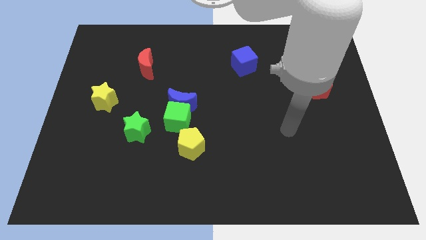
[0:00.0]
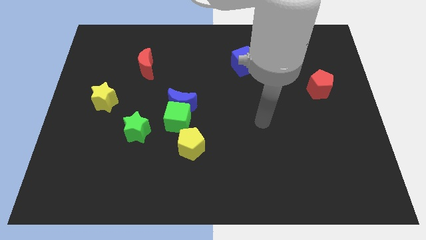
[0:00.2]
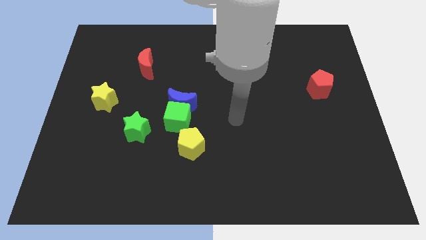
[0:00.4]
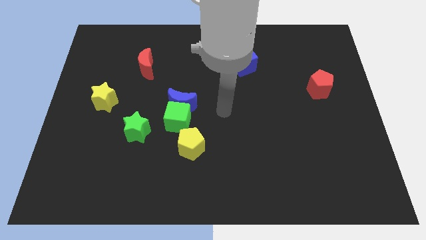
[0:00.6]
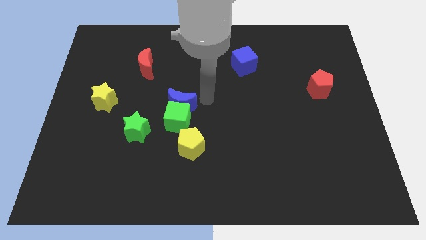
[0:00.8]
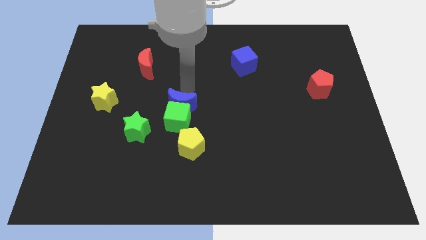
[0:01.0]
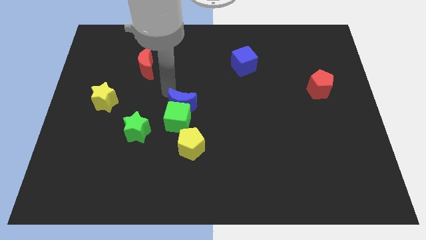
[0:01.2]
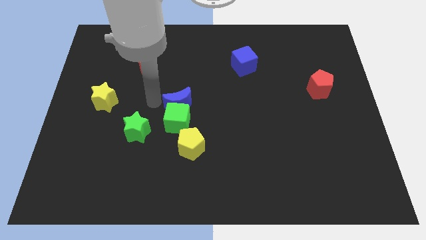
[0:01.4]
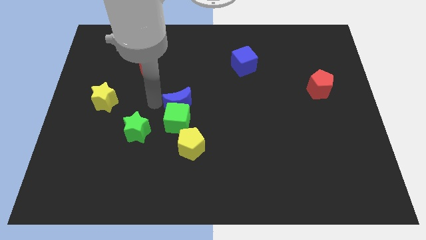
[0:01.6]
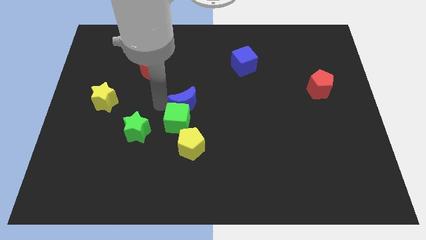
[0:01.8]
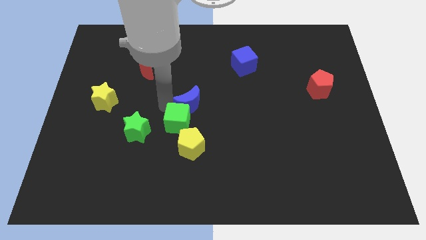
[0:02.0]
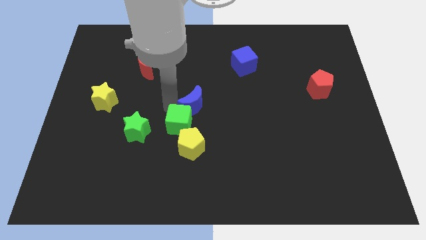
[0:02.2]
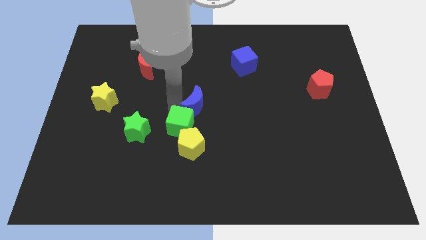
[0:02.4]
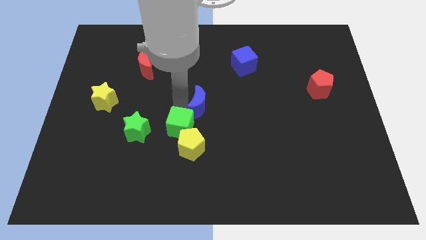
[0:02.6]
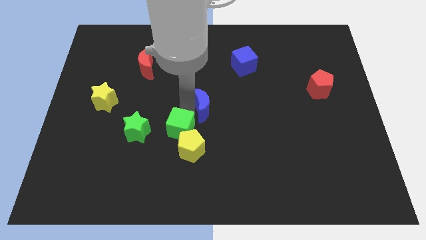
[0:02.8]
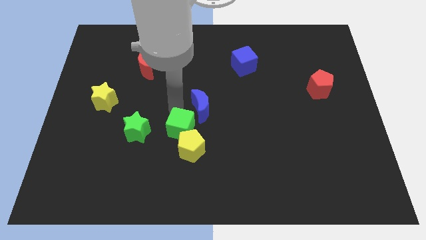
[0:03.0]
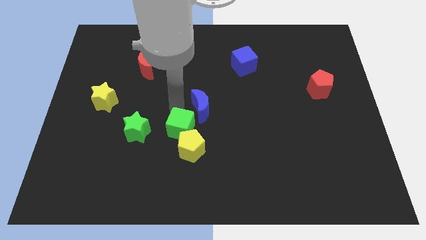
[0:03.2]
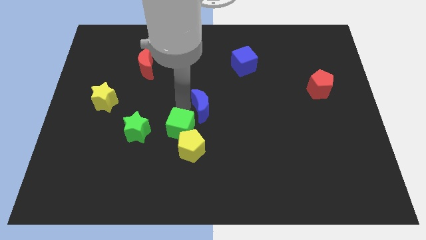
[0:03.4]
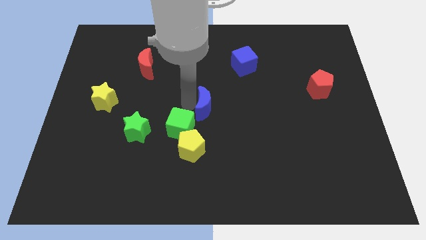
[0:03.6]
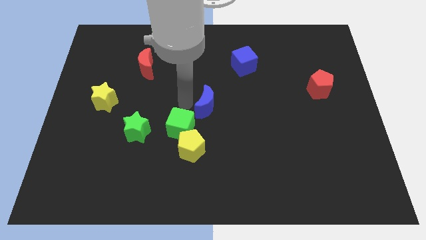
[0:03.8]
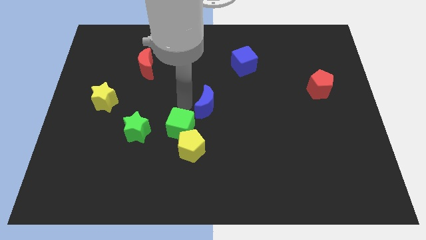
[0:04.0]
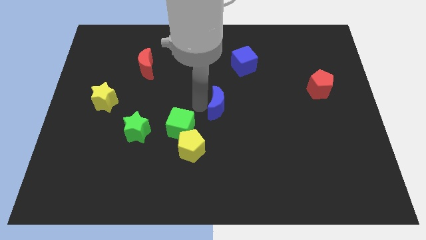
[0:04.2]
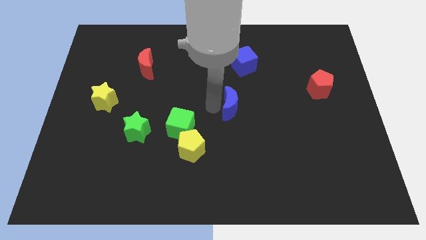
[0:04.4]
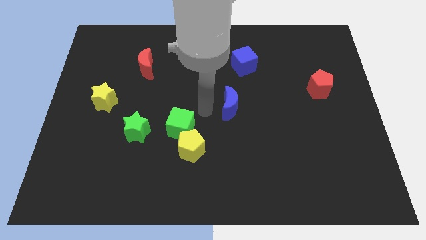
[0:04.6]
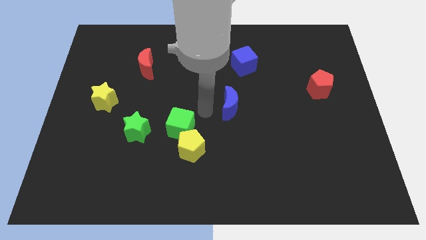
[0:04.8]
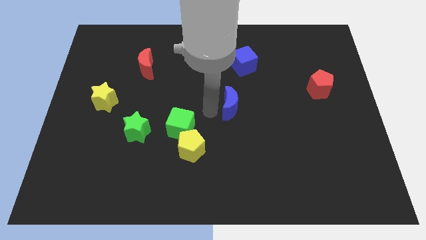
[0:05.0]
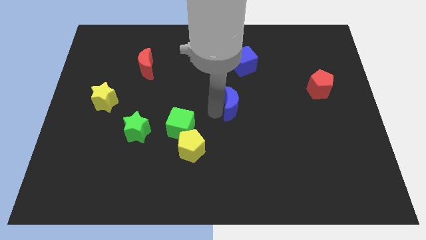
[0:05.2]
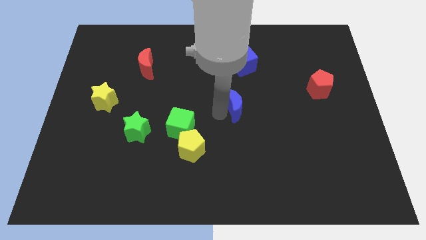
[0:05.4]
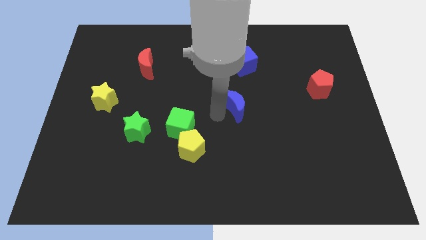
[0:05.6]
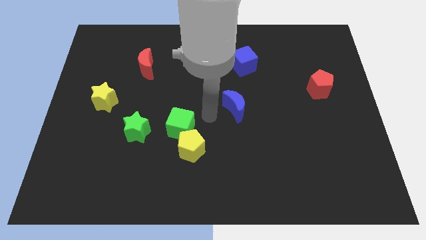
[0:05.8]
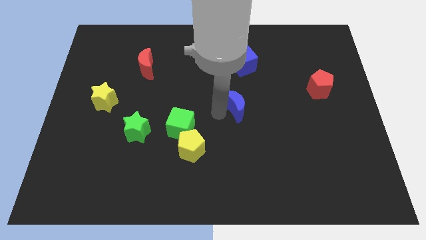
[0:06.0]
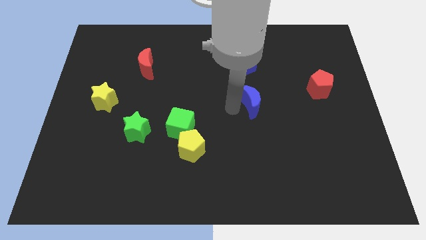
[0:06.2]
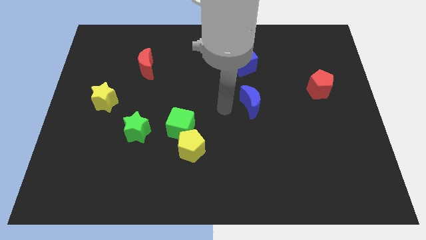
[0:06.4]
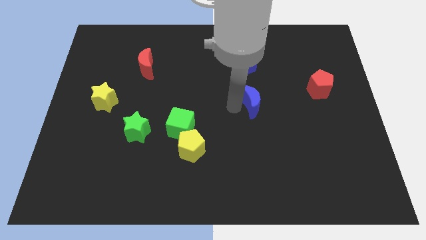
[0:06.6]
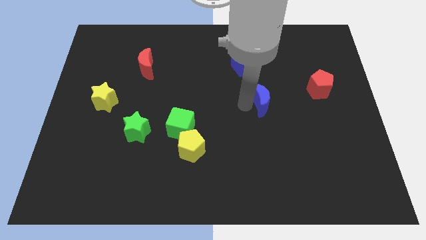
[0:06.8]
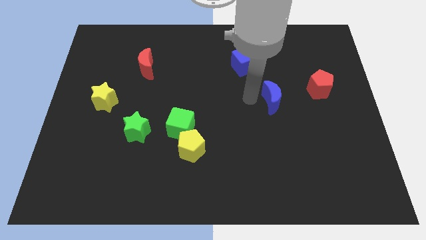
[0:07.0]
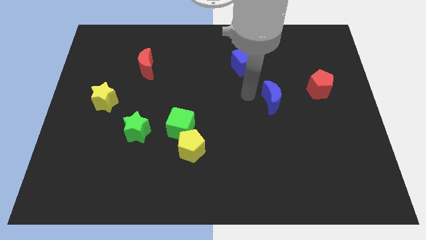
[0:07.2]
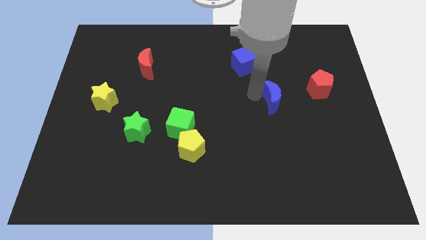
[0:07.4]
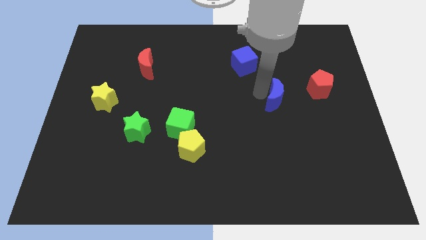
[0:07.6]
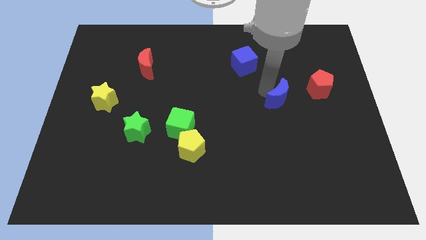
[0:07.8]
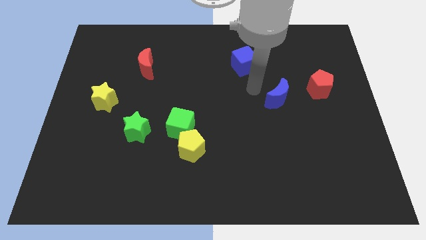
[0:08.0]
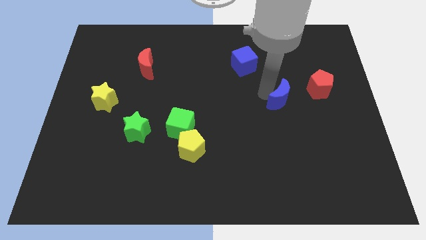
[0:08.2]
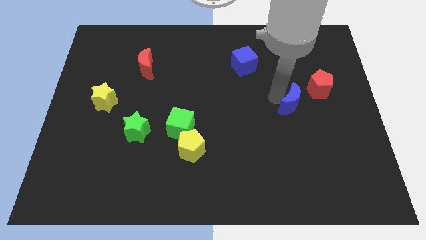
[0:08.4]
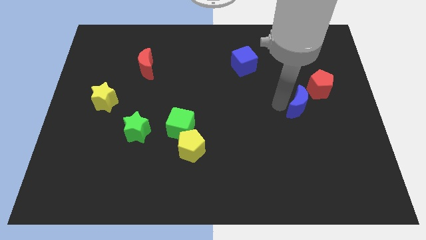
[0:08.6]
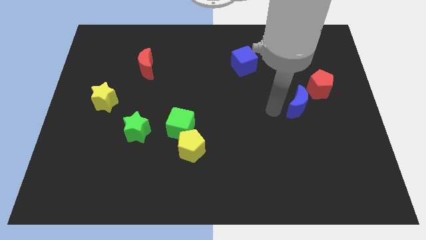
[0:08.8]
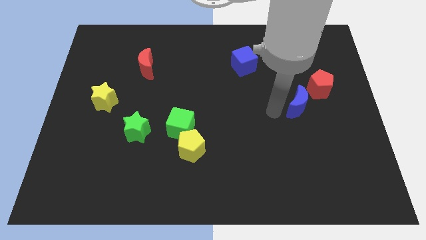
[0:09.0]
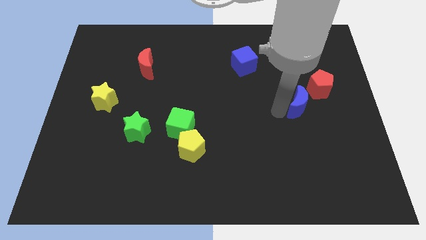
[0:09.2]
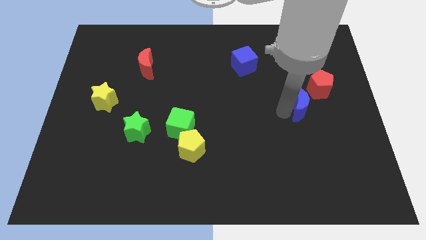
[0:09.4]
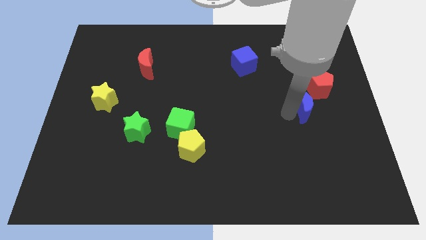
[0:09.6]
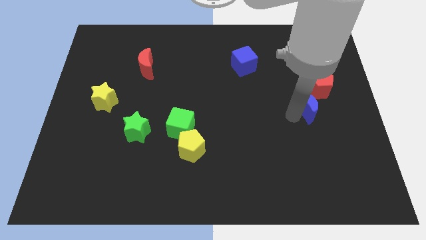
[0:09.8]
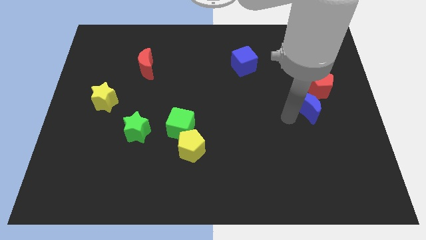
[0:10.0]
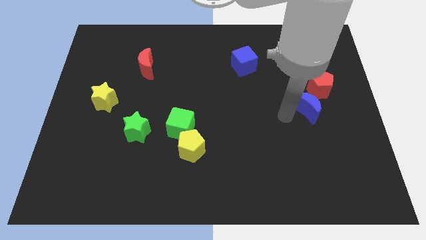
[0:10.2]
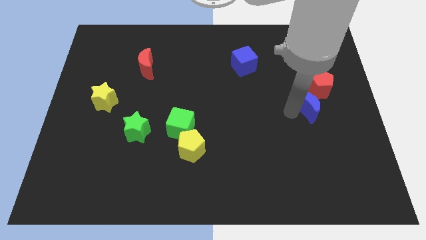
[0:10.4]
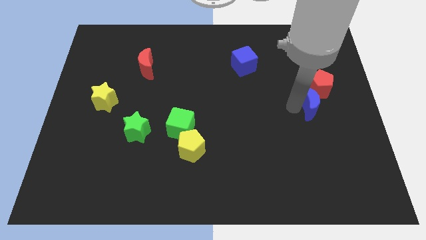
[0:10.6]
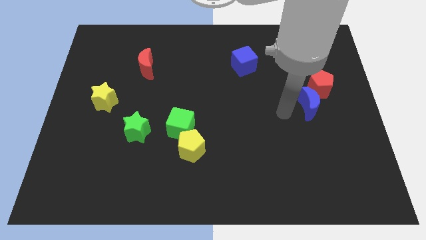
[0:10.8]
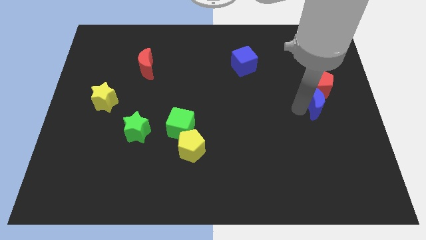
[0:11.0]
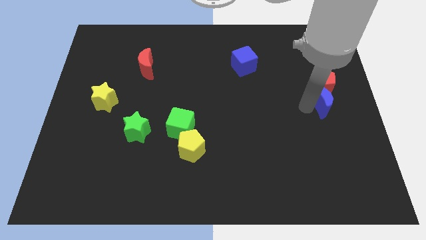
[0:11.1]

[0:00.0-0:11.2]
push the blue moon to the right side of the board
